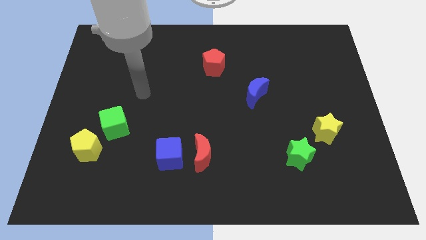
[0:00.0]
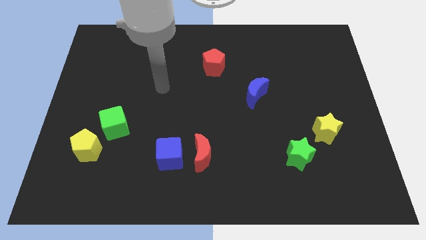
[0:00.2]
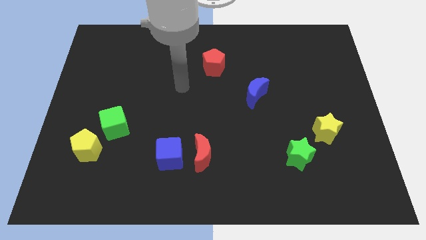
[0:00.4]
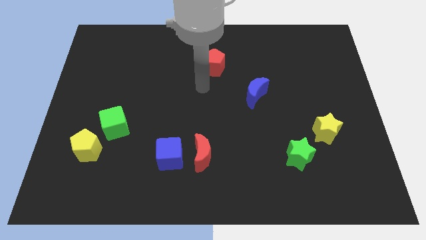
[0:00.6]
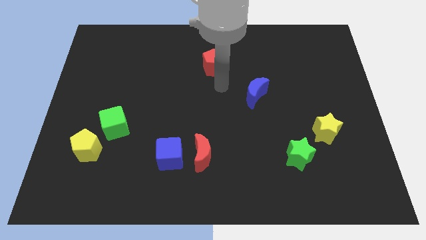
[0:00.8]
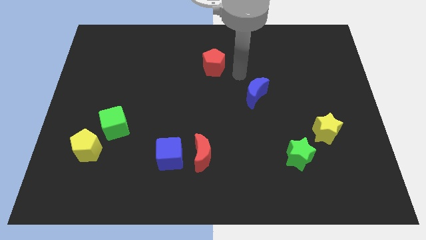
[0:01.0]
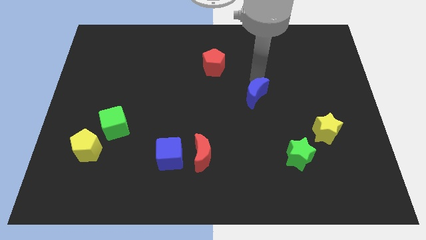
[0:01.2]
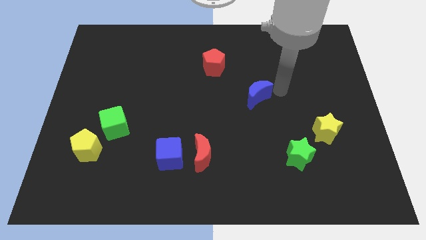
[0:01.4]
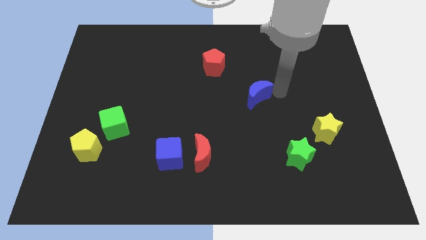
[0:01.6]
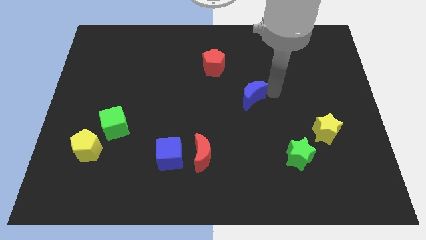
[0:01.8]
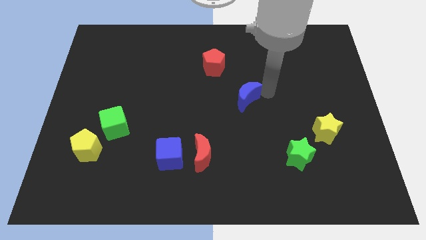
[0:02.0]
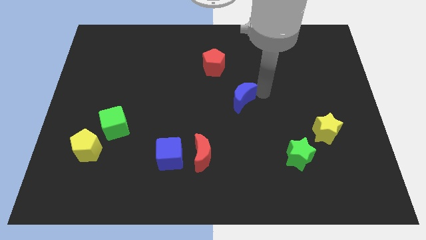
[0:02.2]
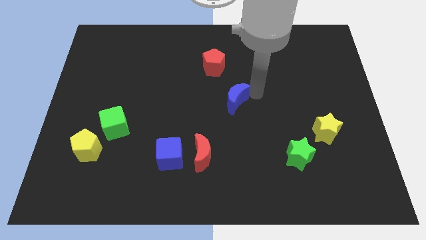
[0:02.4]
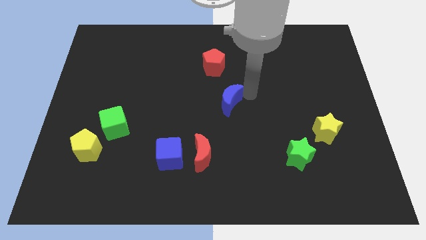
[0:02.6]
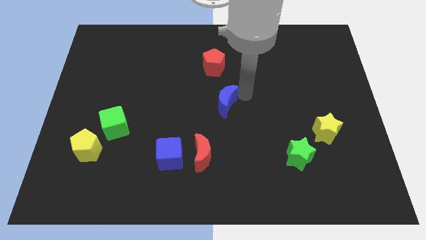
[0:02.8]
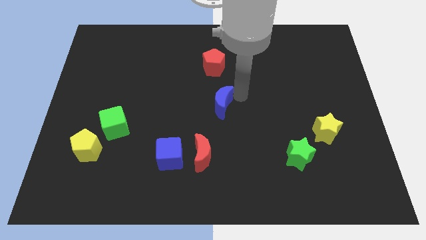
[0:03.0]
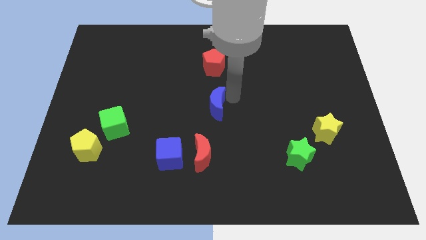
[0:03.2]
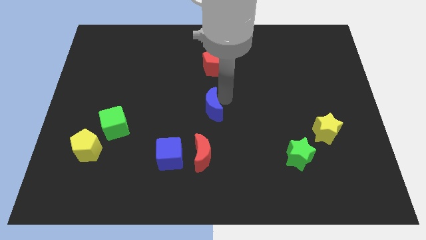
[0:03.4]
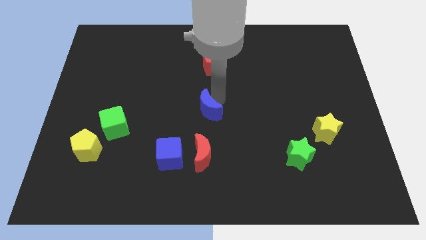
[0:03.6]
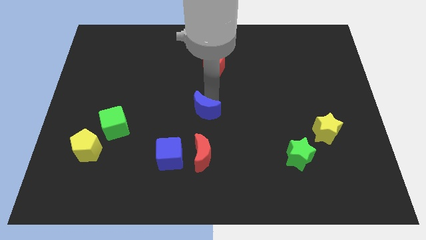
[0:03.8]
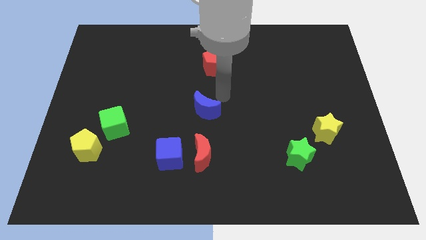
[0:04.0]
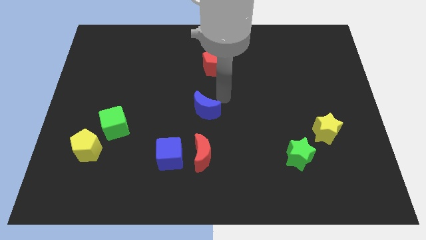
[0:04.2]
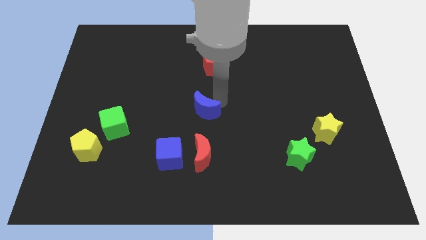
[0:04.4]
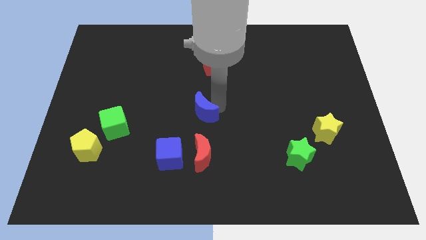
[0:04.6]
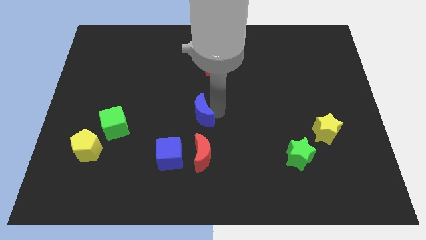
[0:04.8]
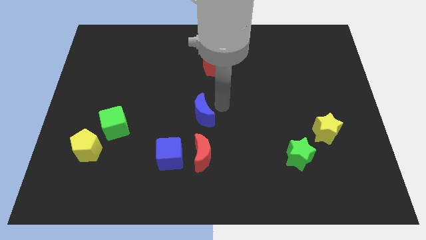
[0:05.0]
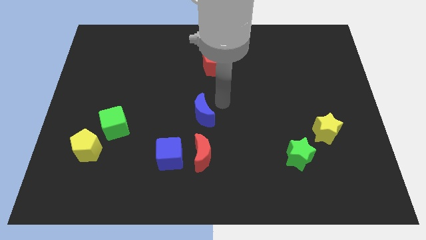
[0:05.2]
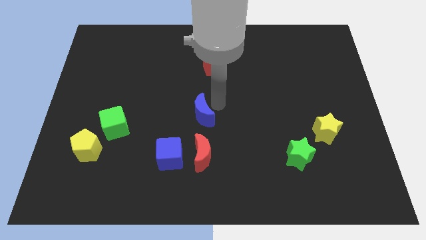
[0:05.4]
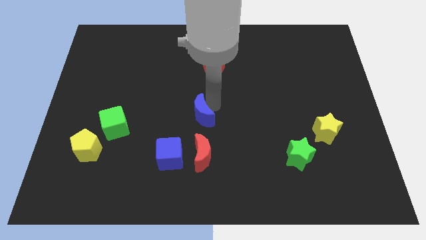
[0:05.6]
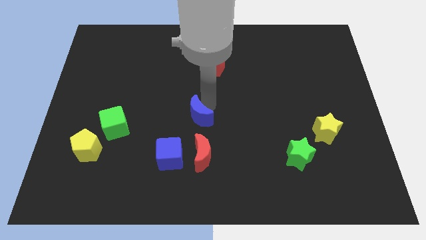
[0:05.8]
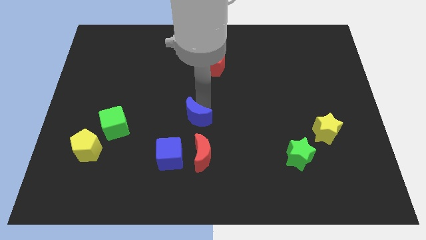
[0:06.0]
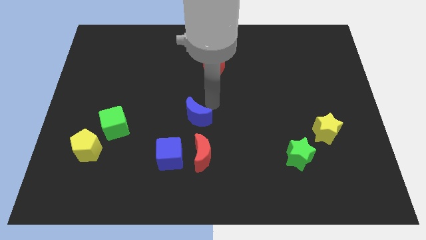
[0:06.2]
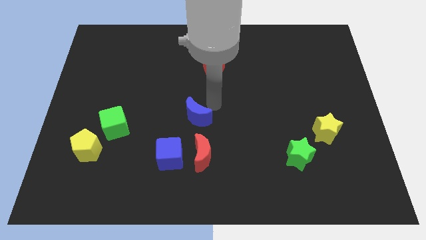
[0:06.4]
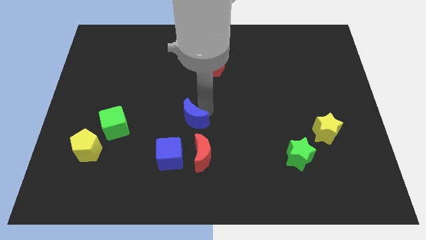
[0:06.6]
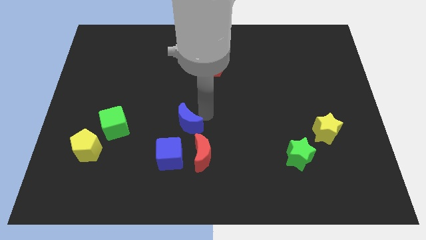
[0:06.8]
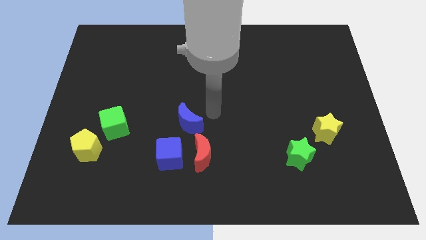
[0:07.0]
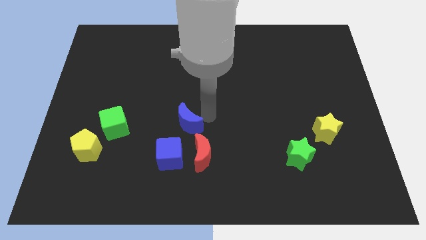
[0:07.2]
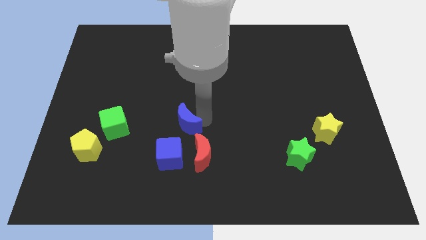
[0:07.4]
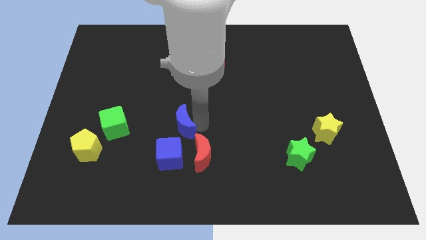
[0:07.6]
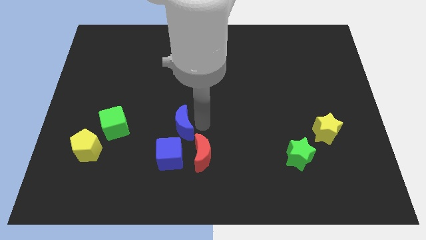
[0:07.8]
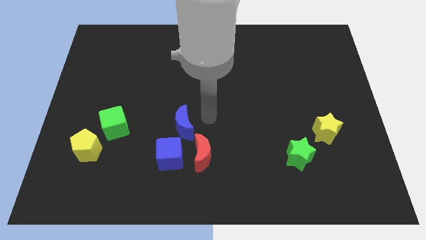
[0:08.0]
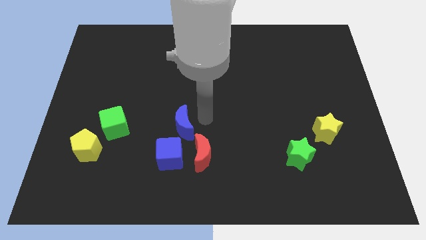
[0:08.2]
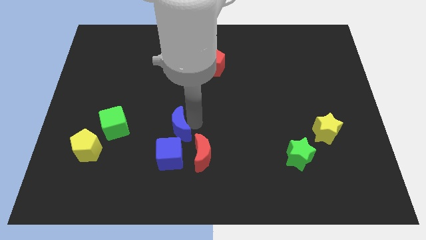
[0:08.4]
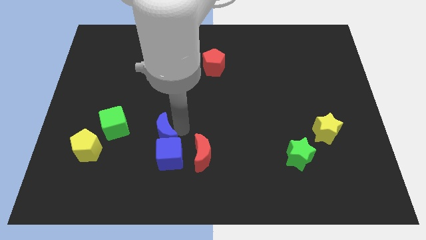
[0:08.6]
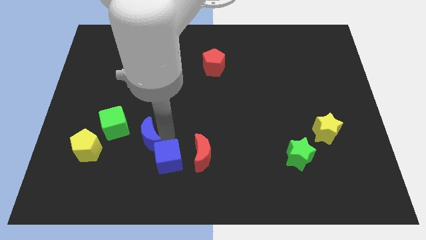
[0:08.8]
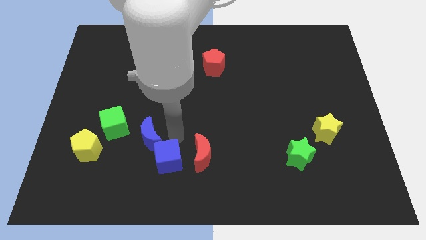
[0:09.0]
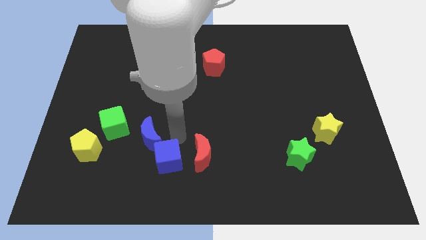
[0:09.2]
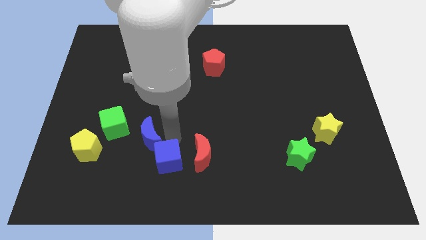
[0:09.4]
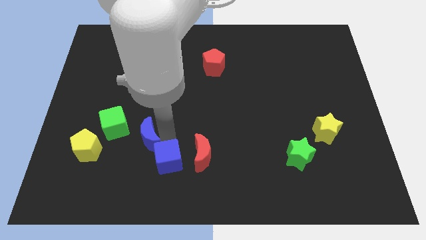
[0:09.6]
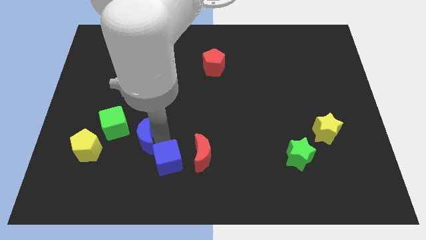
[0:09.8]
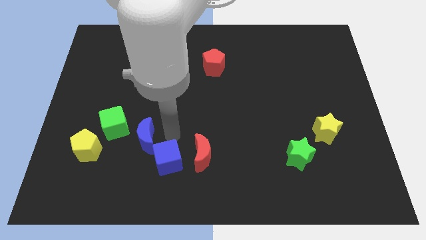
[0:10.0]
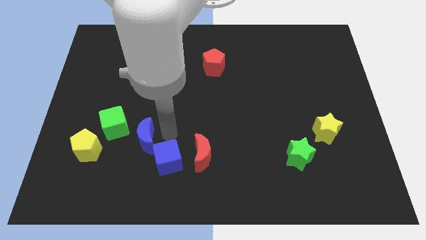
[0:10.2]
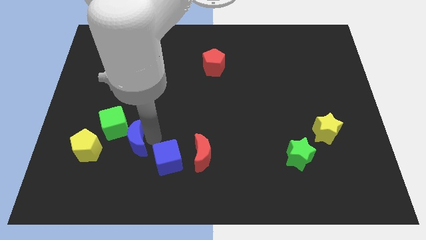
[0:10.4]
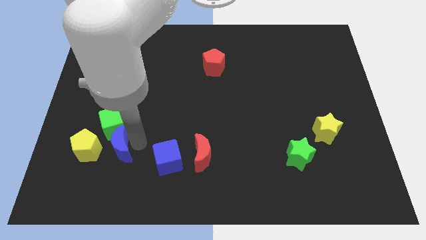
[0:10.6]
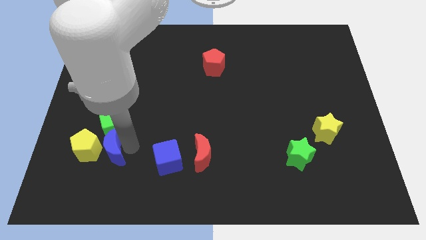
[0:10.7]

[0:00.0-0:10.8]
put the blue moon to the yellow pentagon

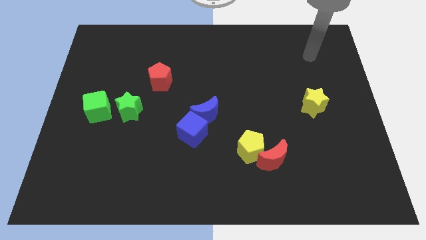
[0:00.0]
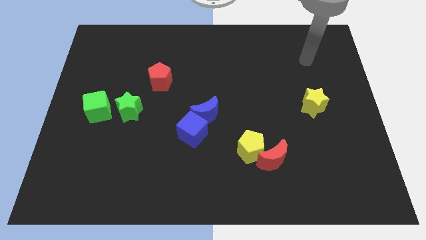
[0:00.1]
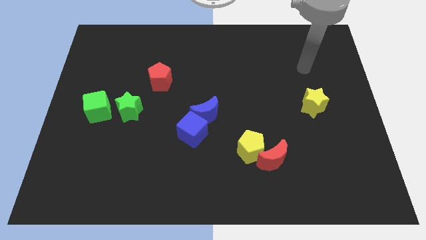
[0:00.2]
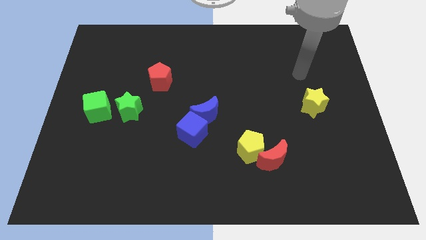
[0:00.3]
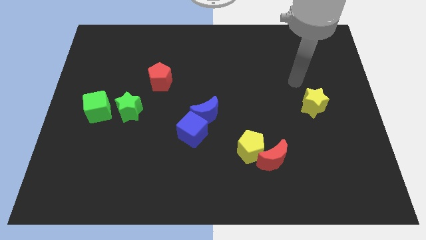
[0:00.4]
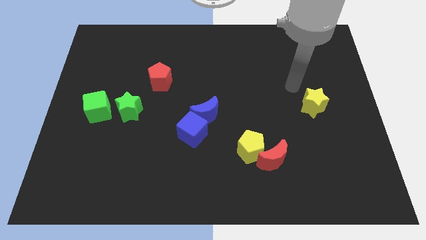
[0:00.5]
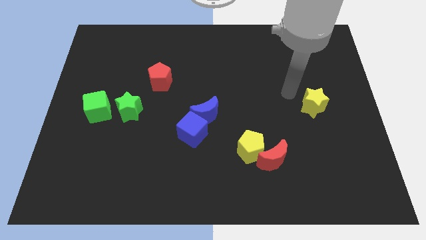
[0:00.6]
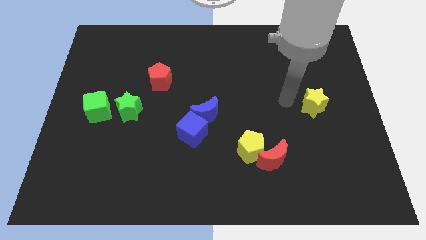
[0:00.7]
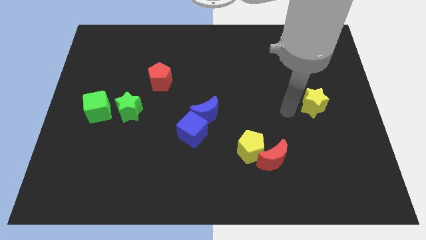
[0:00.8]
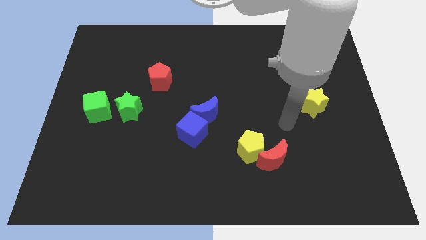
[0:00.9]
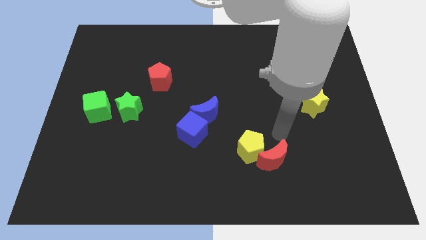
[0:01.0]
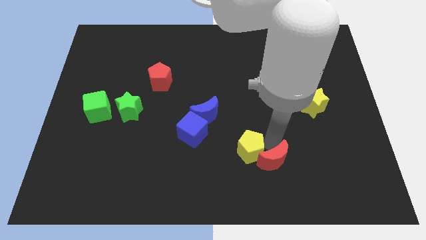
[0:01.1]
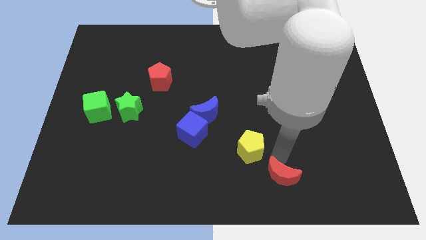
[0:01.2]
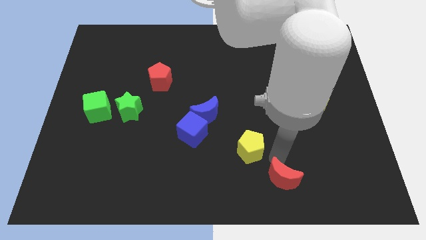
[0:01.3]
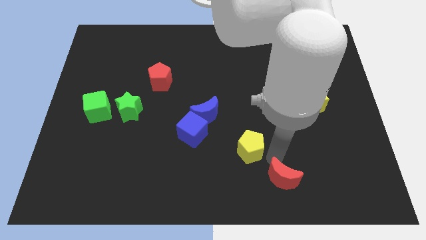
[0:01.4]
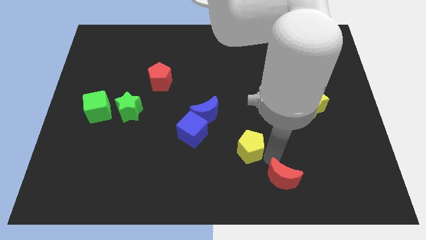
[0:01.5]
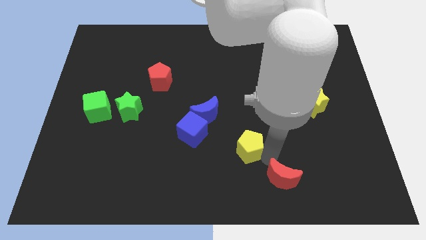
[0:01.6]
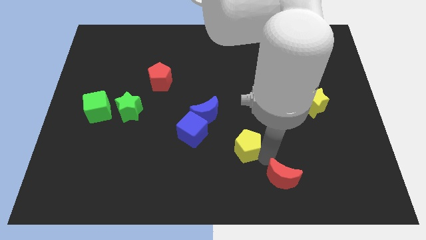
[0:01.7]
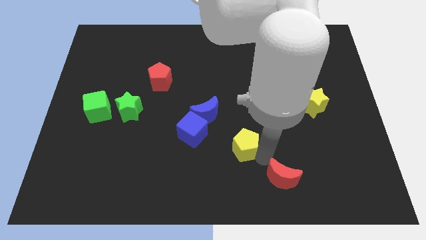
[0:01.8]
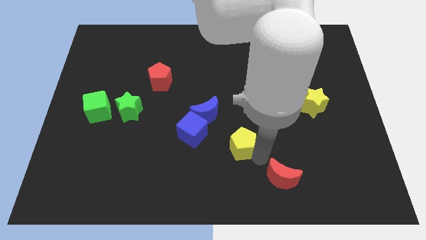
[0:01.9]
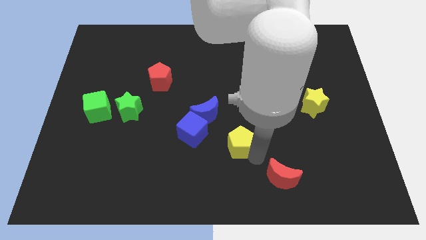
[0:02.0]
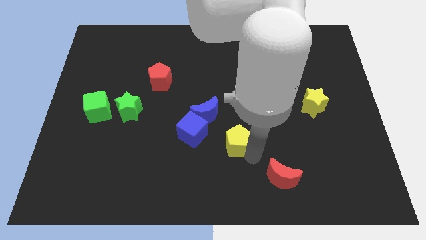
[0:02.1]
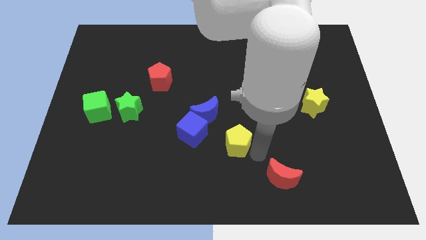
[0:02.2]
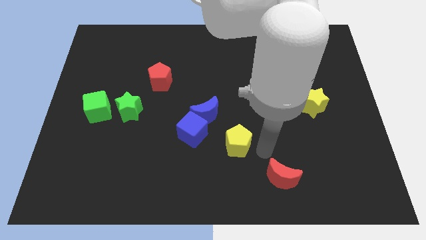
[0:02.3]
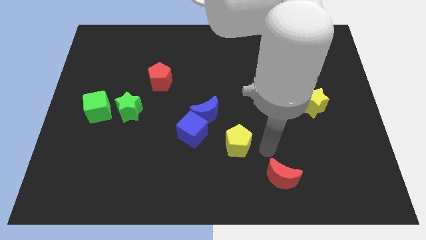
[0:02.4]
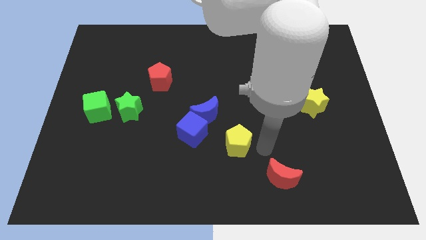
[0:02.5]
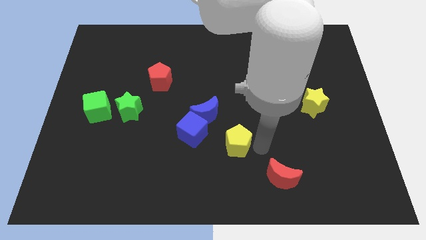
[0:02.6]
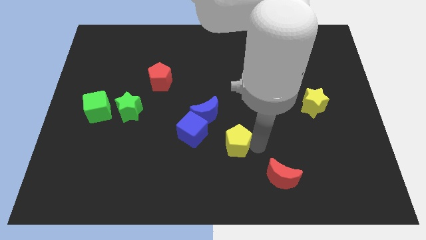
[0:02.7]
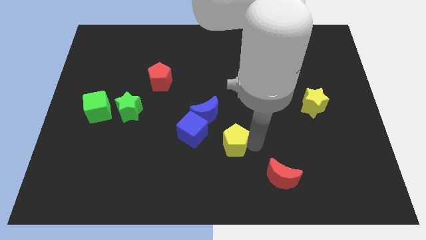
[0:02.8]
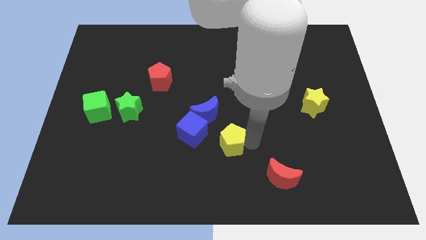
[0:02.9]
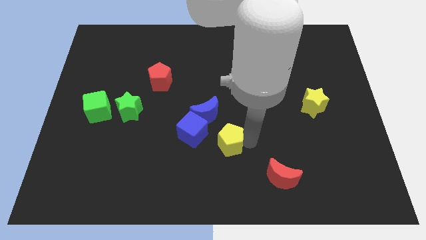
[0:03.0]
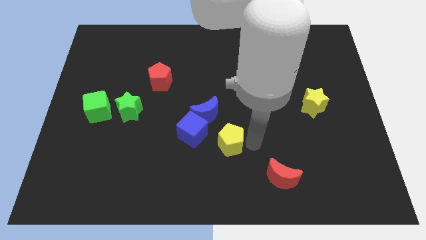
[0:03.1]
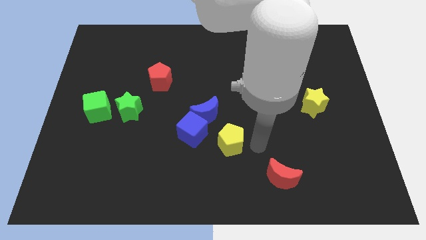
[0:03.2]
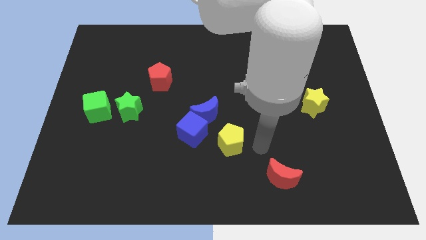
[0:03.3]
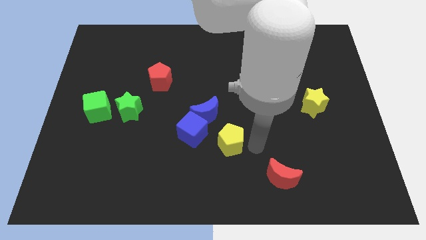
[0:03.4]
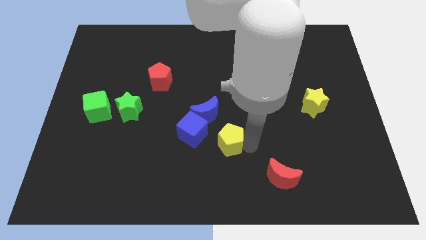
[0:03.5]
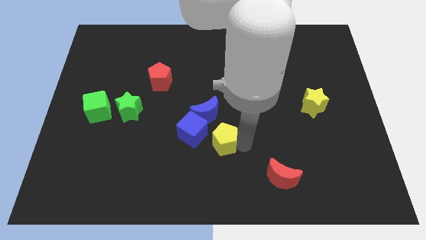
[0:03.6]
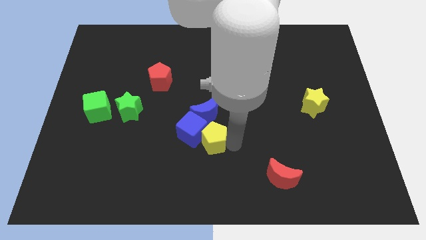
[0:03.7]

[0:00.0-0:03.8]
slide the yellow pentagon to the blue cube
